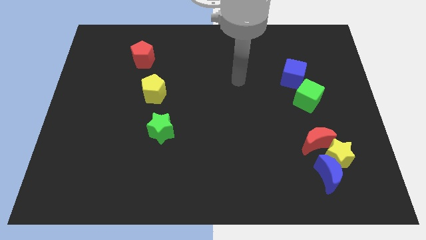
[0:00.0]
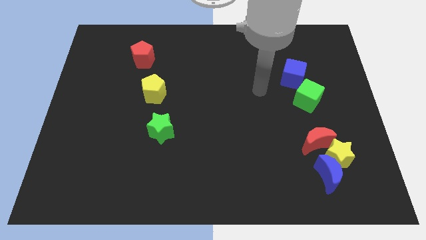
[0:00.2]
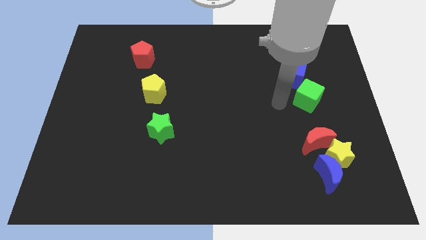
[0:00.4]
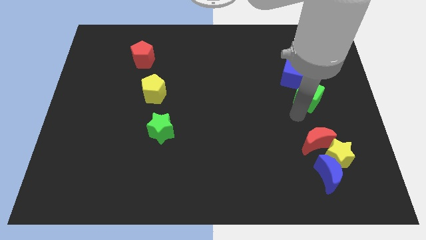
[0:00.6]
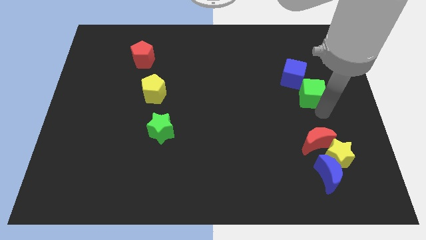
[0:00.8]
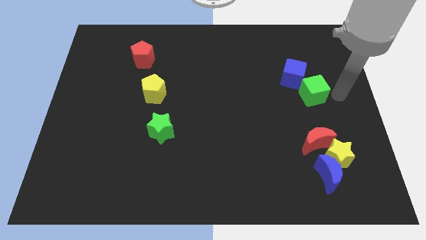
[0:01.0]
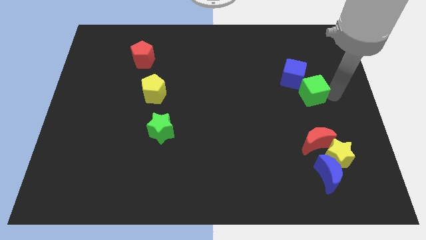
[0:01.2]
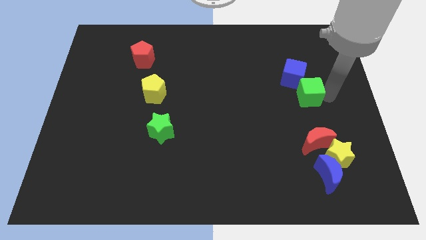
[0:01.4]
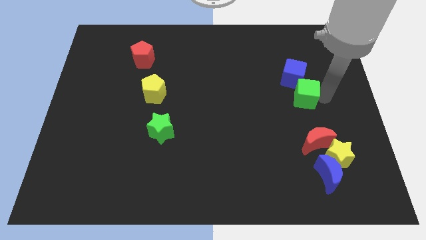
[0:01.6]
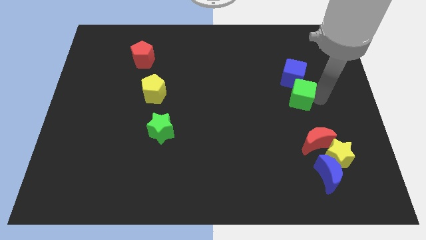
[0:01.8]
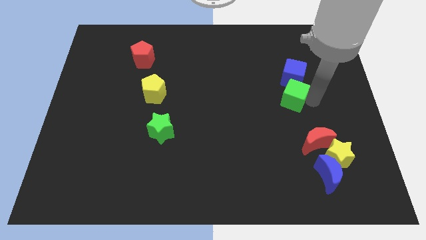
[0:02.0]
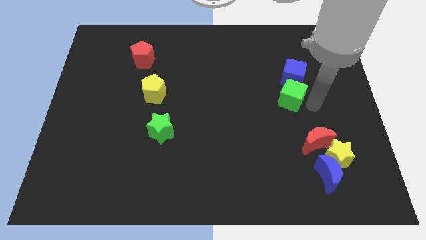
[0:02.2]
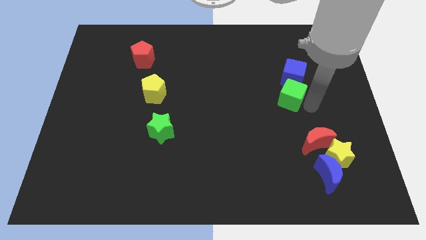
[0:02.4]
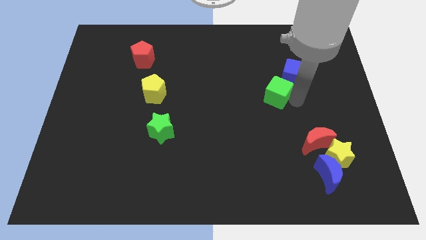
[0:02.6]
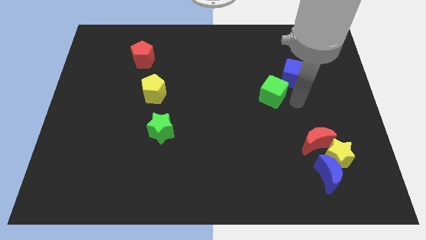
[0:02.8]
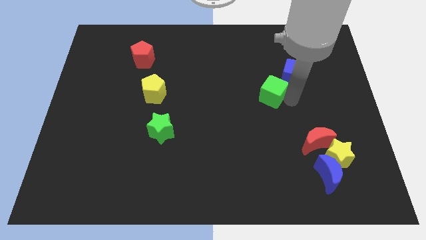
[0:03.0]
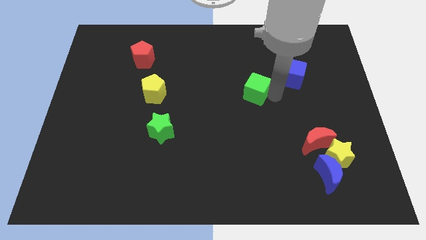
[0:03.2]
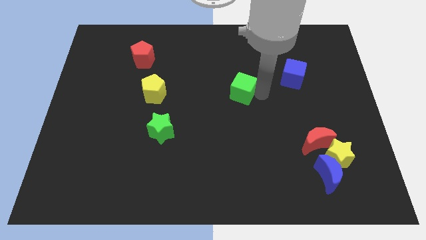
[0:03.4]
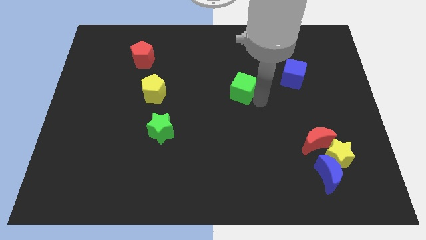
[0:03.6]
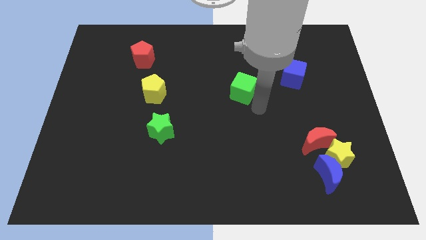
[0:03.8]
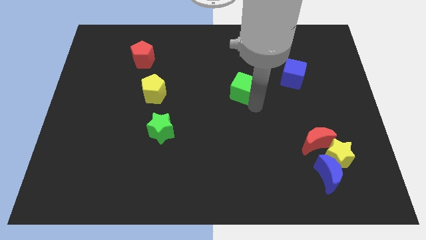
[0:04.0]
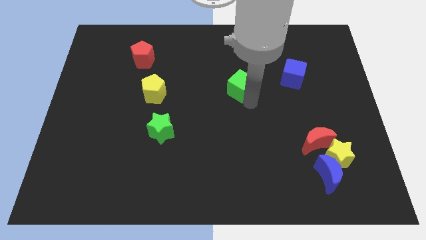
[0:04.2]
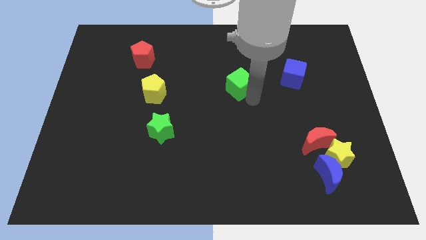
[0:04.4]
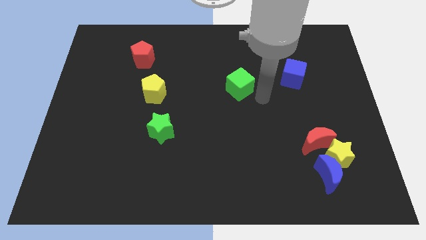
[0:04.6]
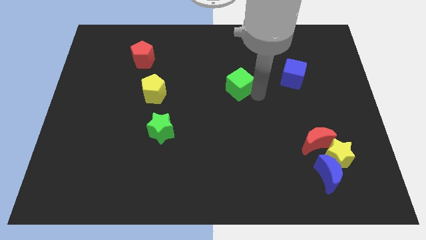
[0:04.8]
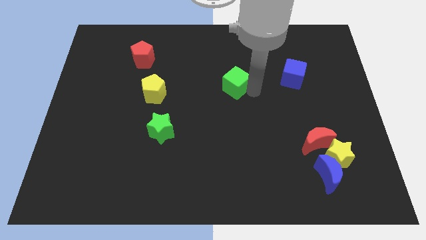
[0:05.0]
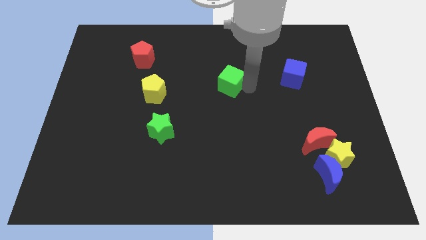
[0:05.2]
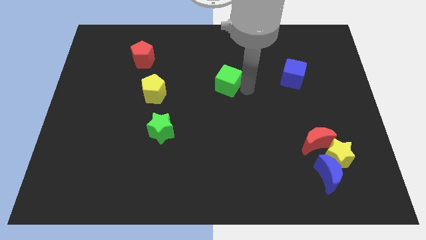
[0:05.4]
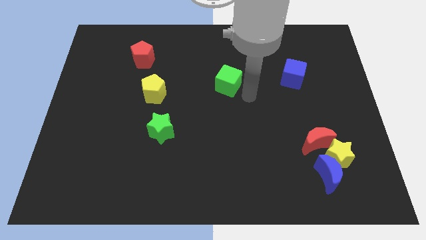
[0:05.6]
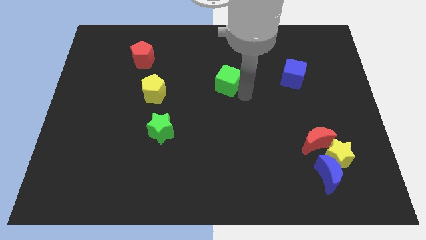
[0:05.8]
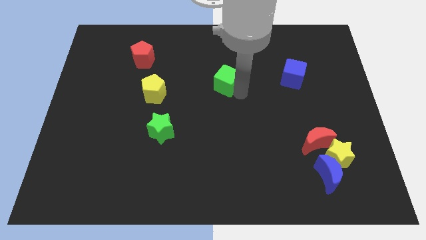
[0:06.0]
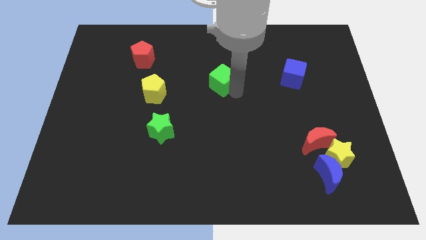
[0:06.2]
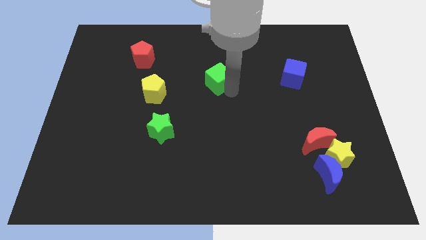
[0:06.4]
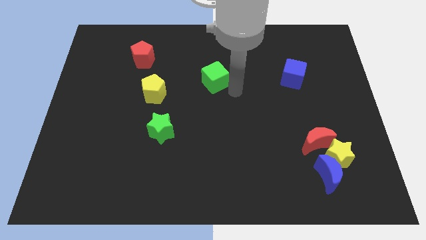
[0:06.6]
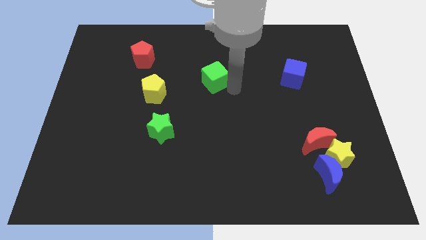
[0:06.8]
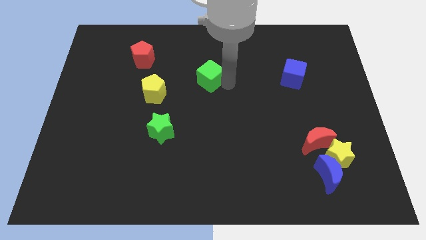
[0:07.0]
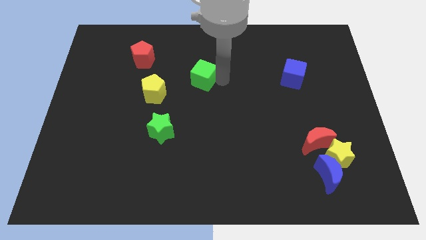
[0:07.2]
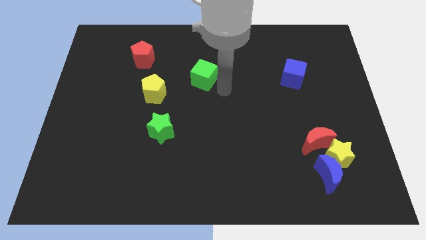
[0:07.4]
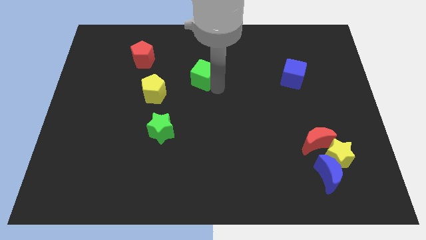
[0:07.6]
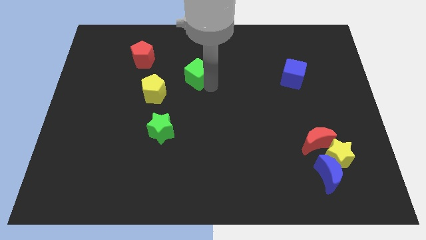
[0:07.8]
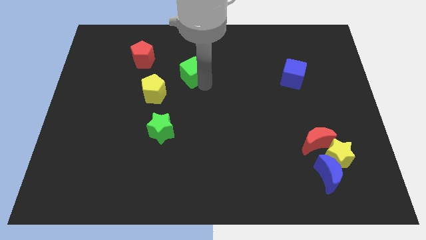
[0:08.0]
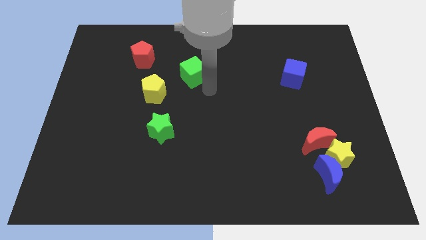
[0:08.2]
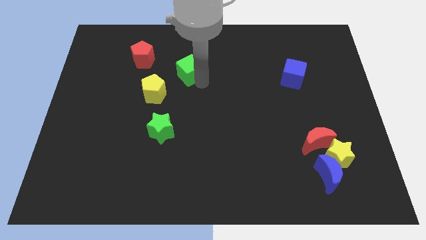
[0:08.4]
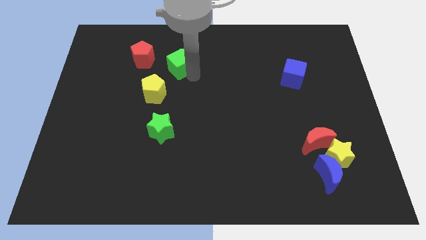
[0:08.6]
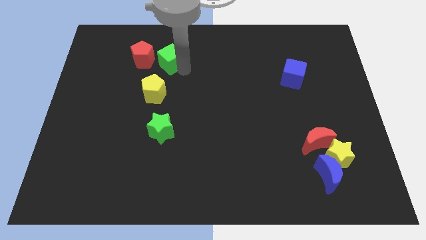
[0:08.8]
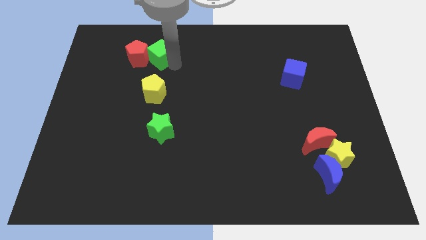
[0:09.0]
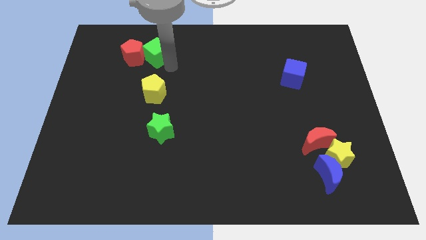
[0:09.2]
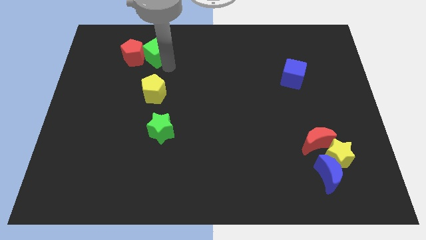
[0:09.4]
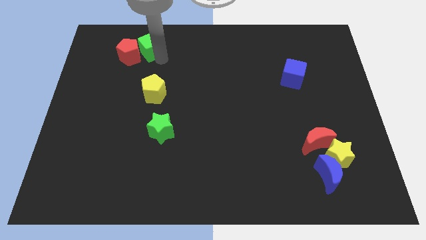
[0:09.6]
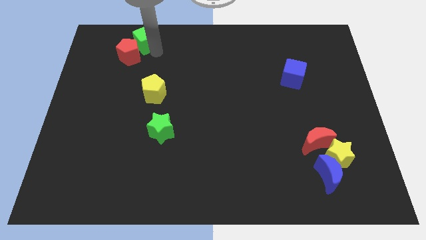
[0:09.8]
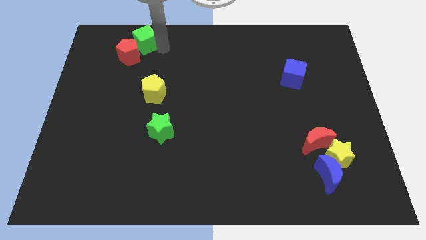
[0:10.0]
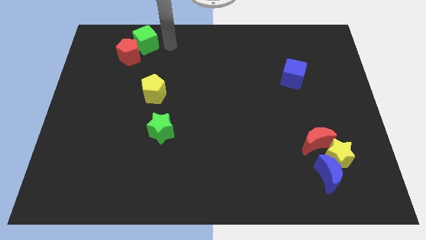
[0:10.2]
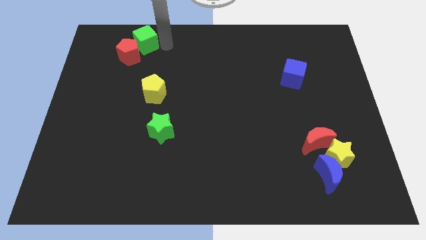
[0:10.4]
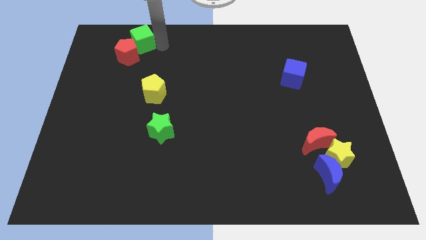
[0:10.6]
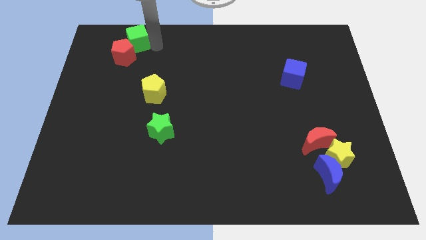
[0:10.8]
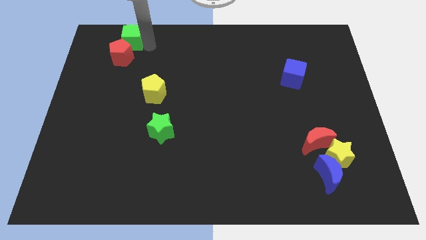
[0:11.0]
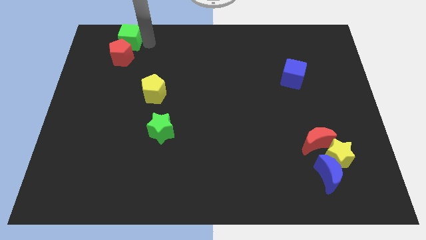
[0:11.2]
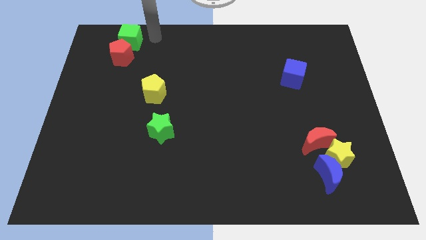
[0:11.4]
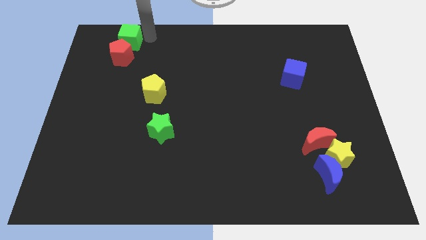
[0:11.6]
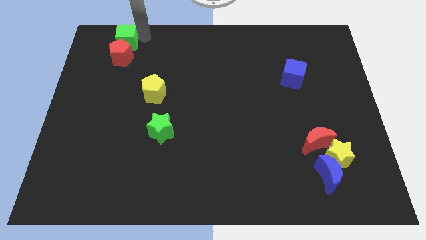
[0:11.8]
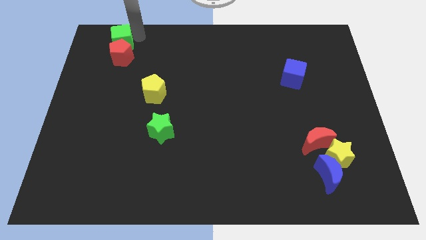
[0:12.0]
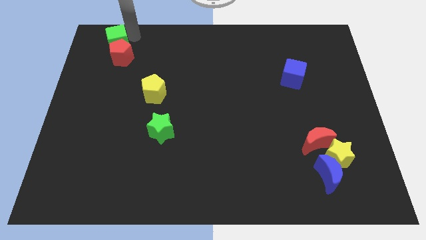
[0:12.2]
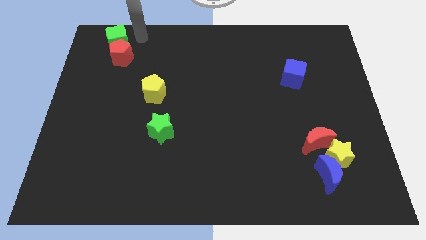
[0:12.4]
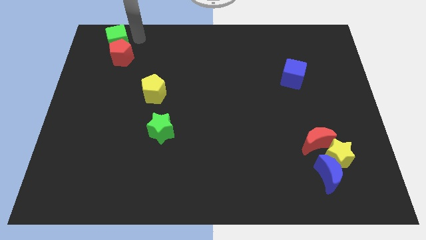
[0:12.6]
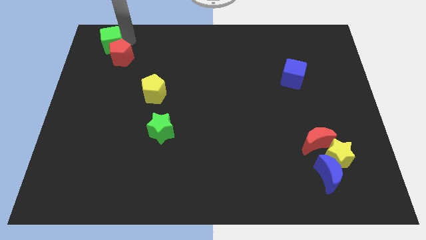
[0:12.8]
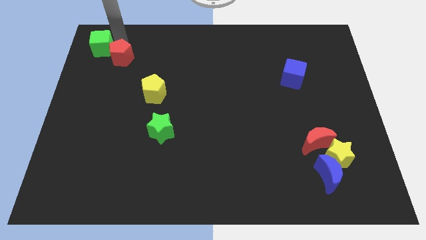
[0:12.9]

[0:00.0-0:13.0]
slide the green cube to the upper left corner
